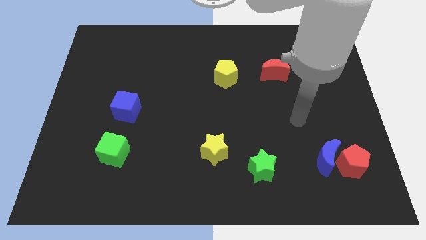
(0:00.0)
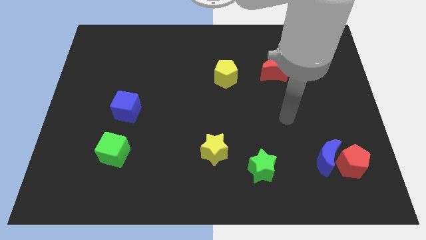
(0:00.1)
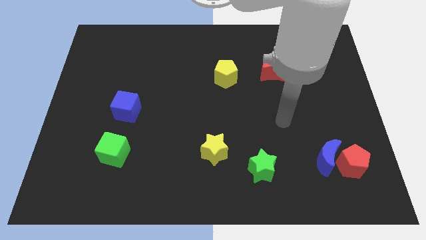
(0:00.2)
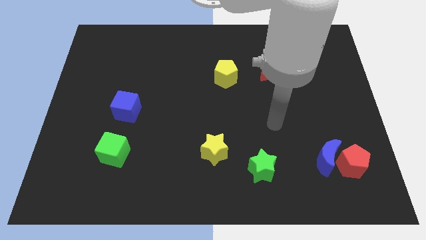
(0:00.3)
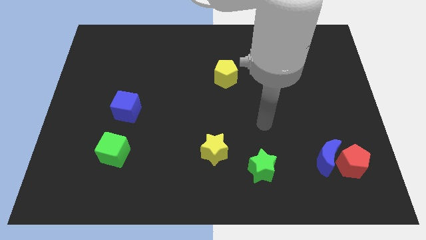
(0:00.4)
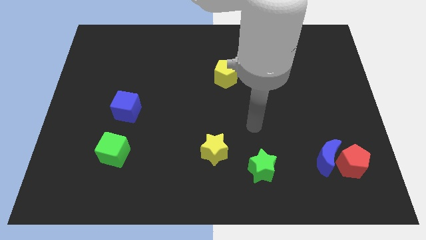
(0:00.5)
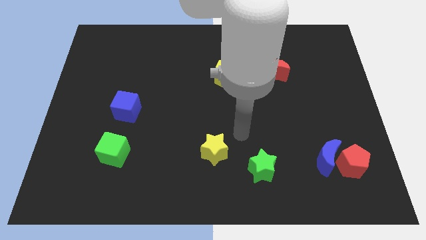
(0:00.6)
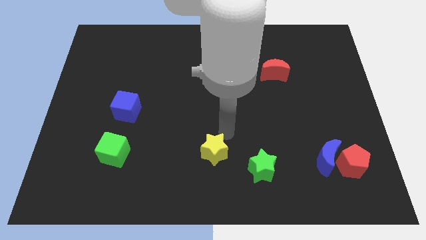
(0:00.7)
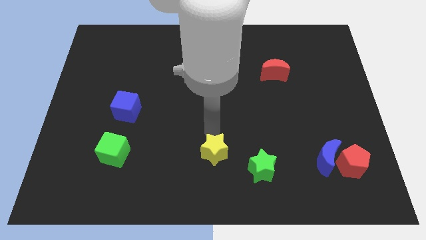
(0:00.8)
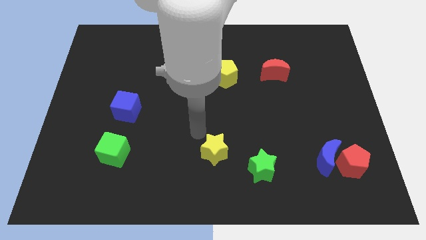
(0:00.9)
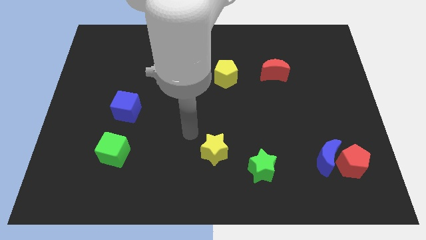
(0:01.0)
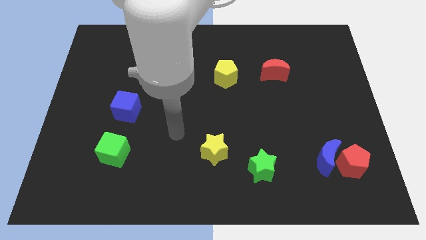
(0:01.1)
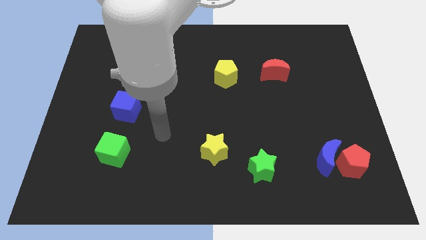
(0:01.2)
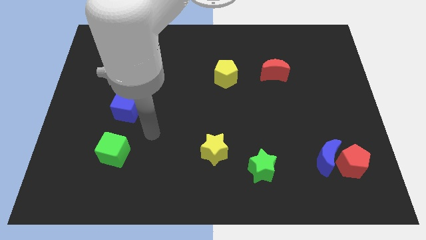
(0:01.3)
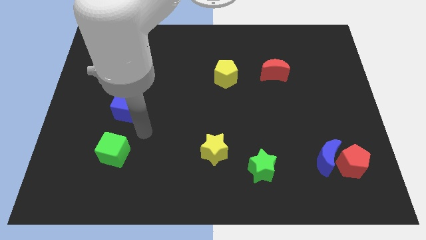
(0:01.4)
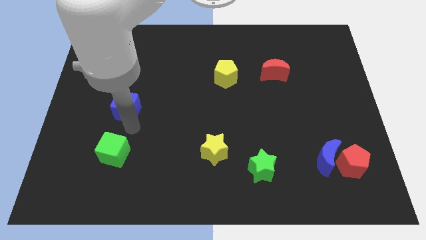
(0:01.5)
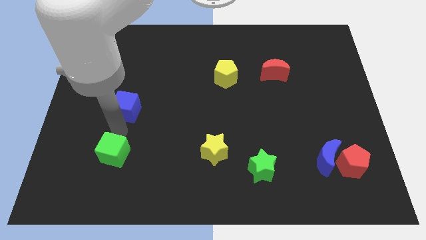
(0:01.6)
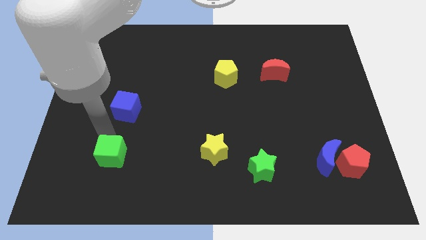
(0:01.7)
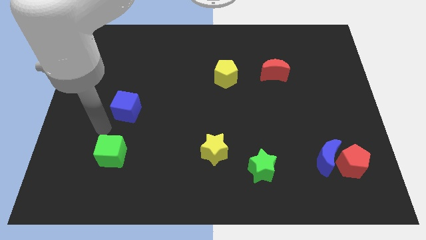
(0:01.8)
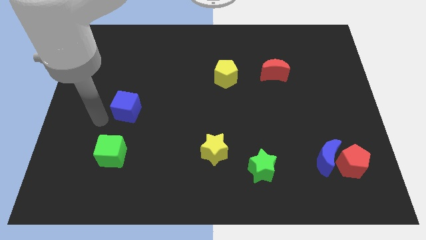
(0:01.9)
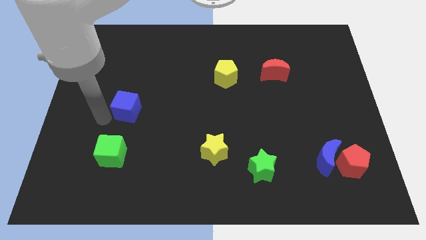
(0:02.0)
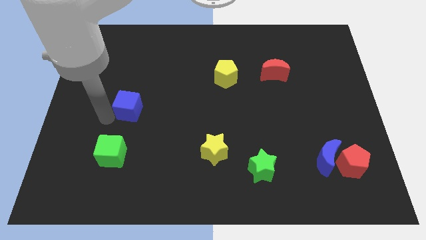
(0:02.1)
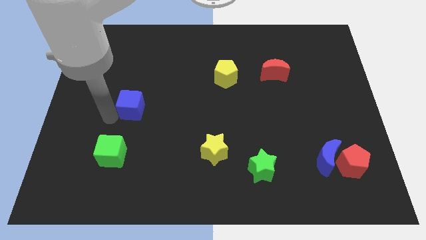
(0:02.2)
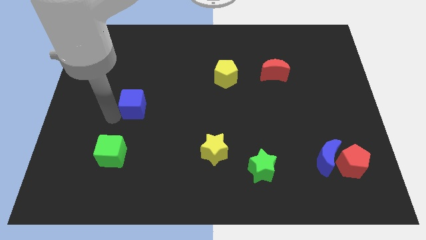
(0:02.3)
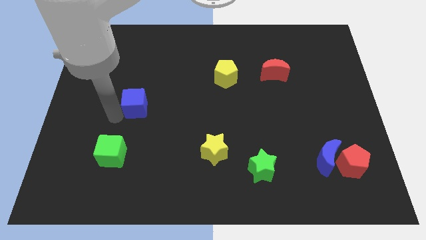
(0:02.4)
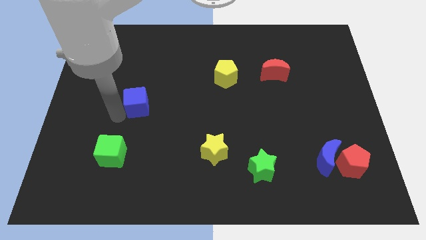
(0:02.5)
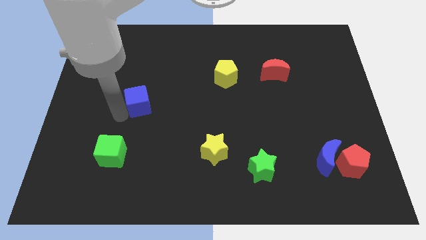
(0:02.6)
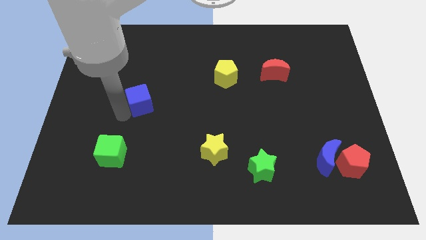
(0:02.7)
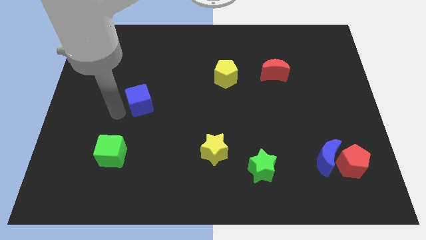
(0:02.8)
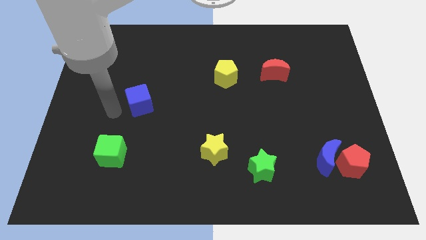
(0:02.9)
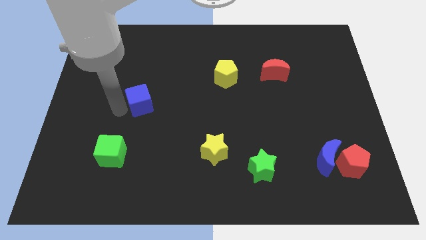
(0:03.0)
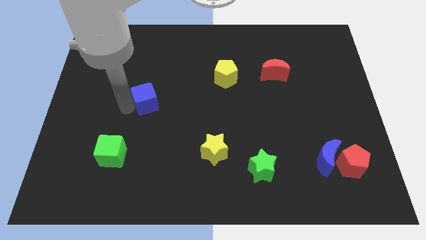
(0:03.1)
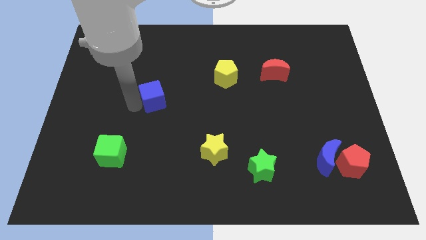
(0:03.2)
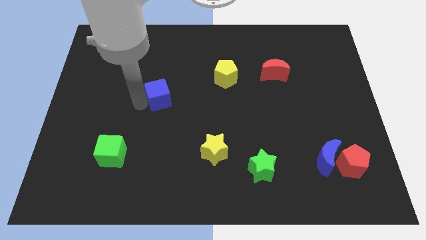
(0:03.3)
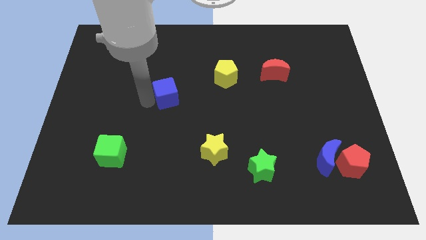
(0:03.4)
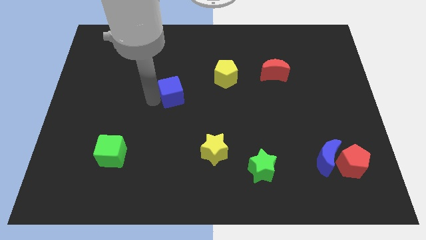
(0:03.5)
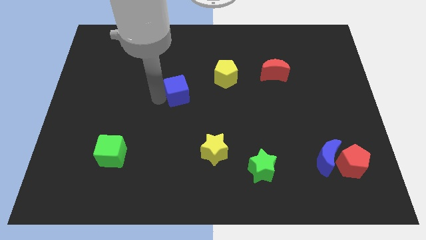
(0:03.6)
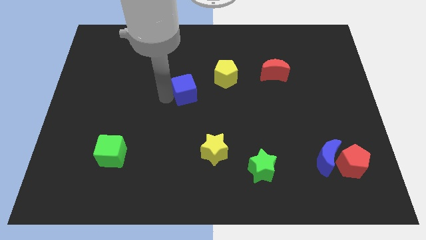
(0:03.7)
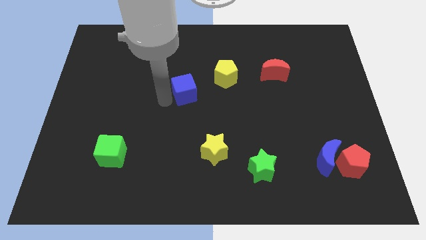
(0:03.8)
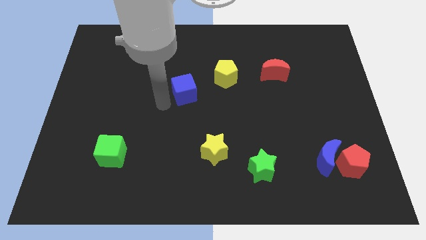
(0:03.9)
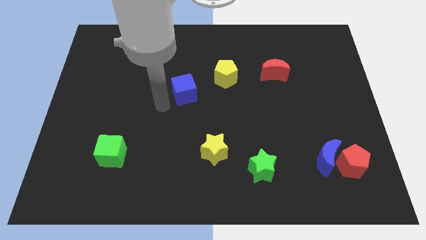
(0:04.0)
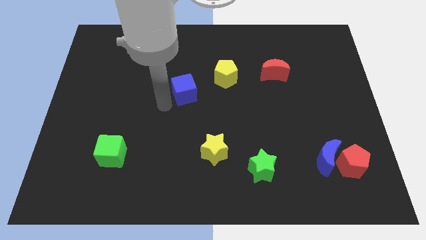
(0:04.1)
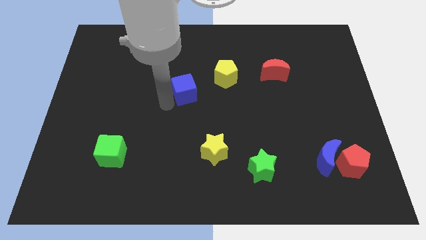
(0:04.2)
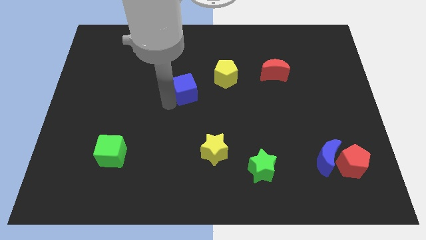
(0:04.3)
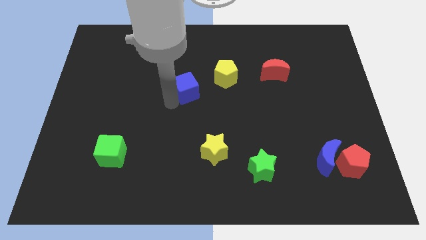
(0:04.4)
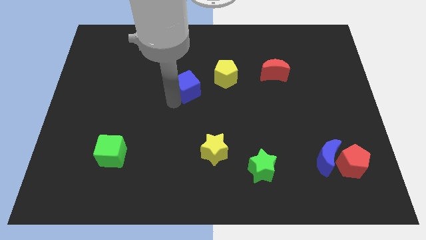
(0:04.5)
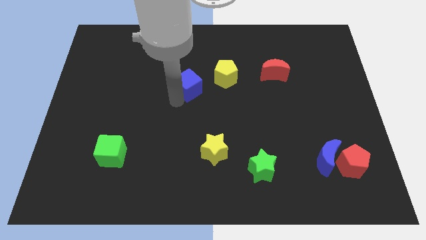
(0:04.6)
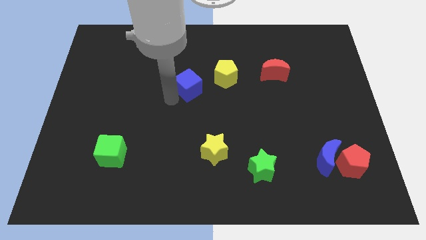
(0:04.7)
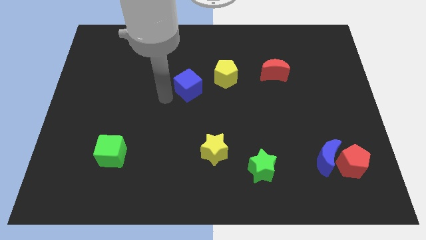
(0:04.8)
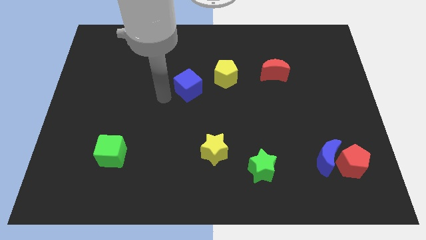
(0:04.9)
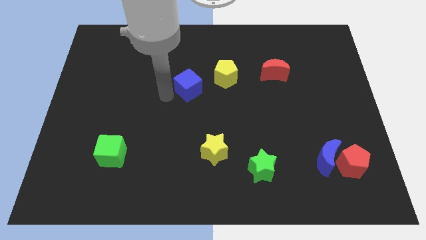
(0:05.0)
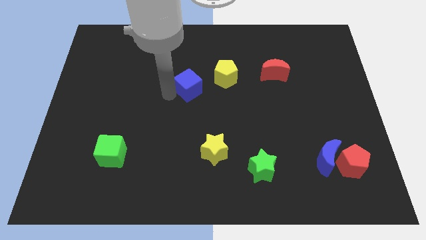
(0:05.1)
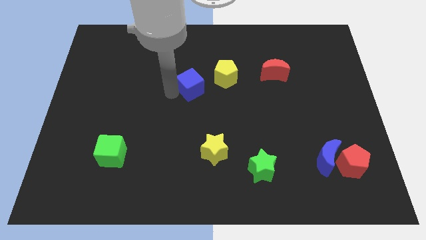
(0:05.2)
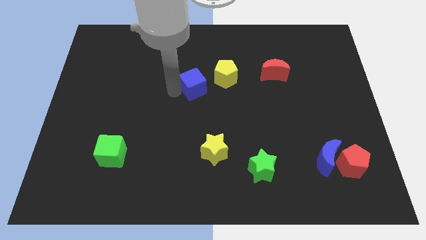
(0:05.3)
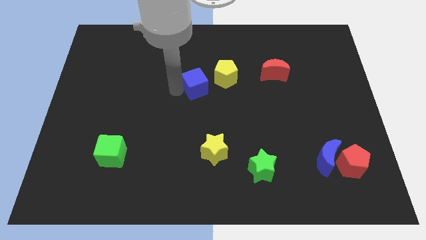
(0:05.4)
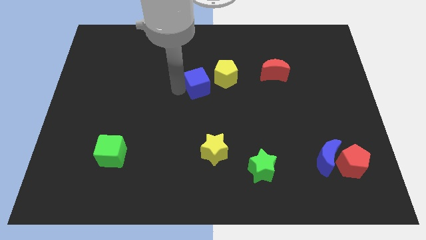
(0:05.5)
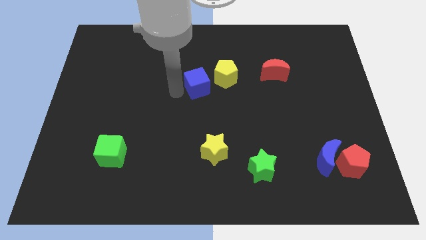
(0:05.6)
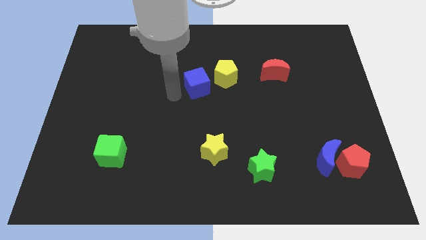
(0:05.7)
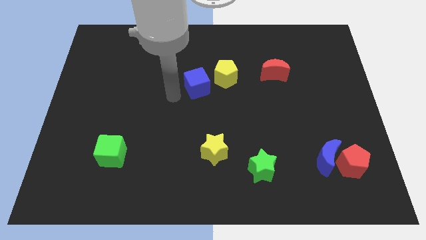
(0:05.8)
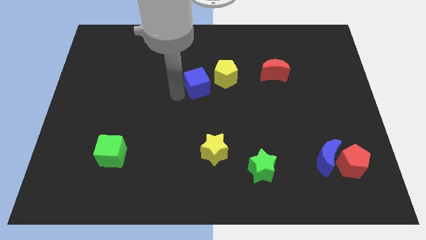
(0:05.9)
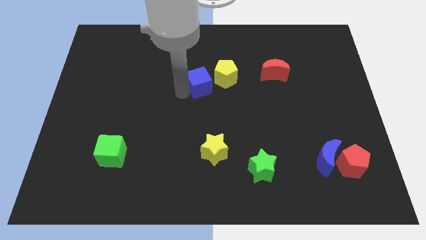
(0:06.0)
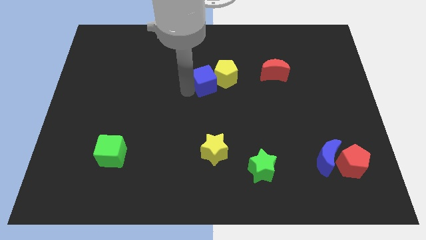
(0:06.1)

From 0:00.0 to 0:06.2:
move the blue cube close to the yellow pentagon
